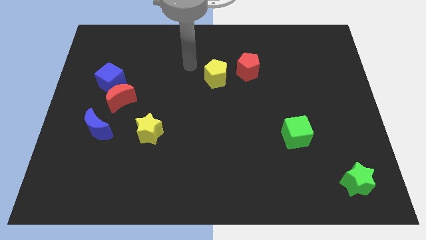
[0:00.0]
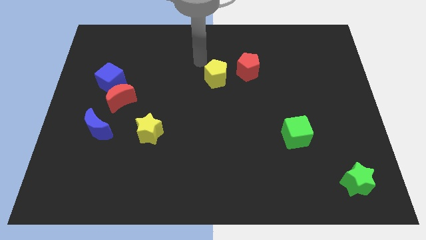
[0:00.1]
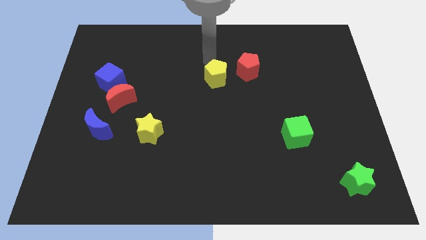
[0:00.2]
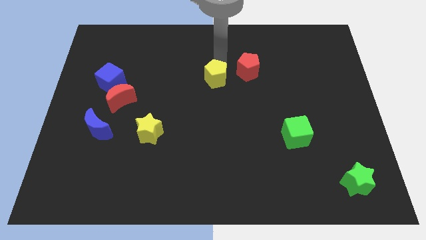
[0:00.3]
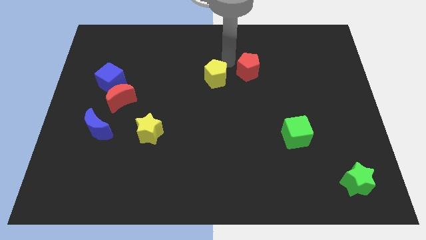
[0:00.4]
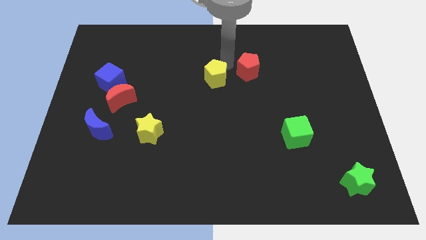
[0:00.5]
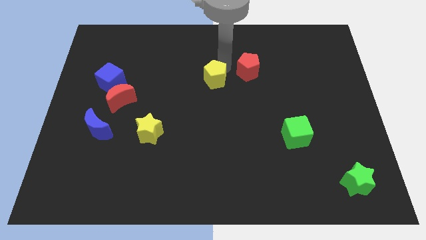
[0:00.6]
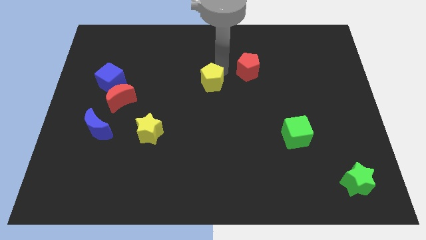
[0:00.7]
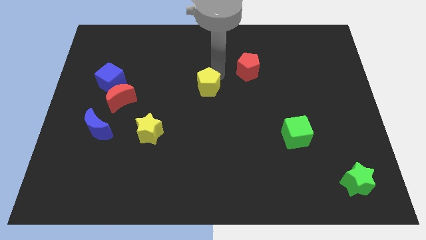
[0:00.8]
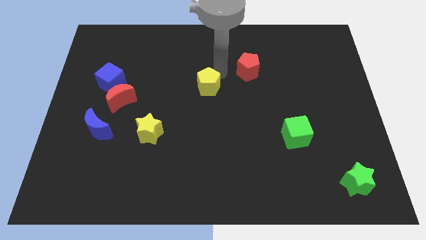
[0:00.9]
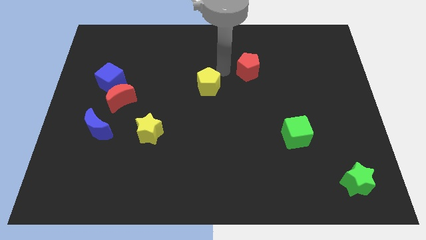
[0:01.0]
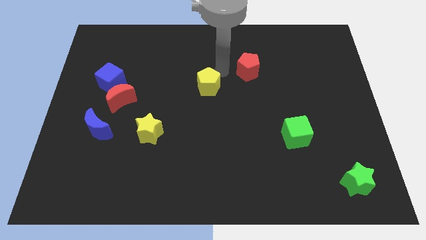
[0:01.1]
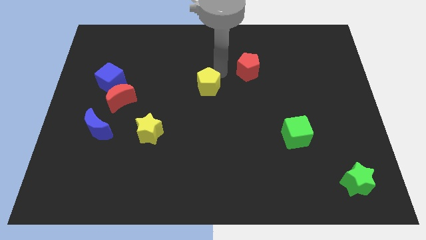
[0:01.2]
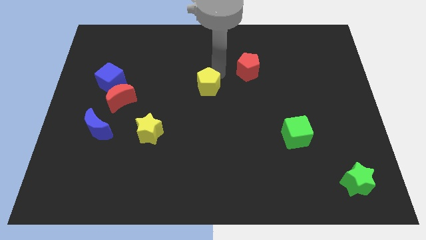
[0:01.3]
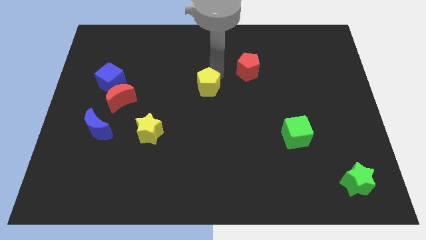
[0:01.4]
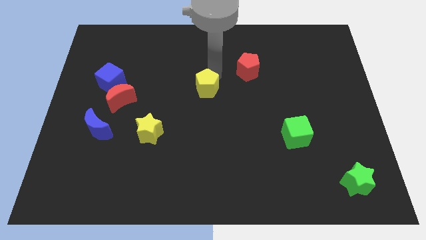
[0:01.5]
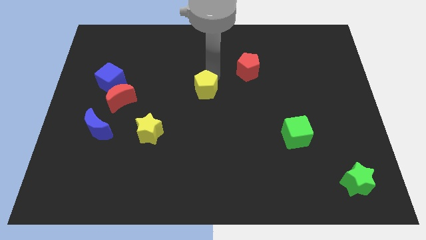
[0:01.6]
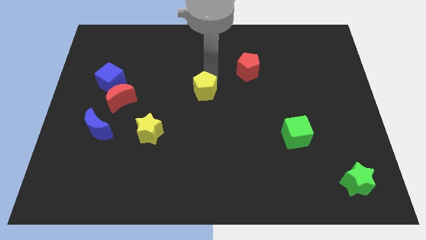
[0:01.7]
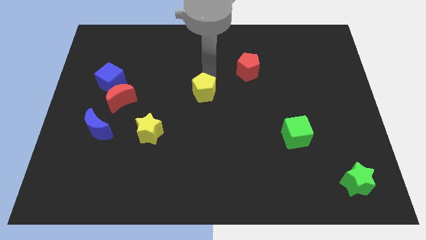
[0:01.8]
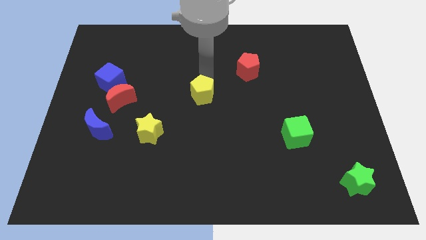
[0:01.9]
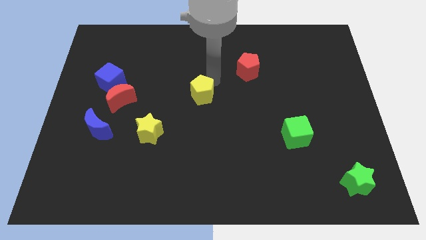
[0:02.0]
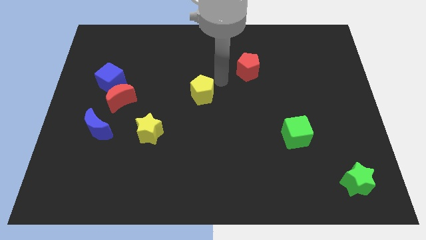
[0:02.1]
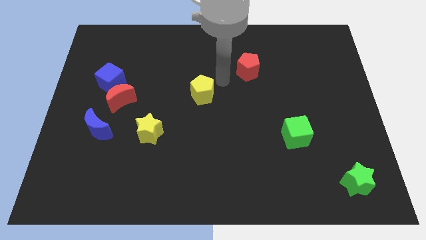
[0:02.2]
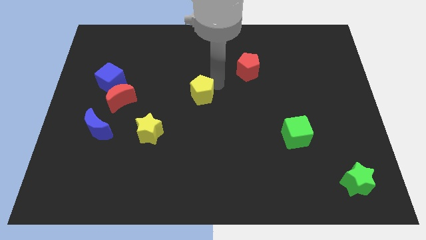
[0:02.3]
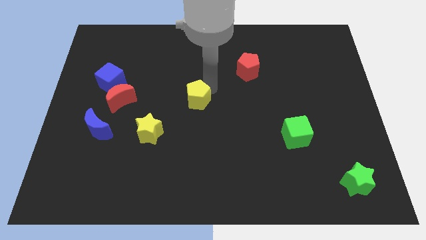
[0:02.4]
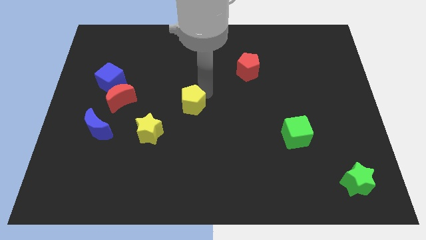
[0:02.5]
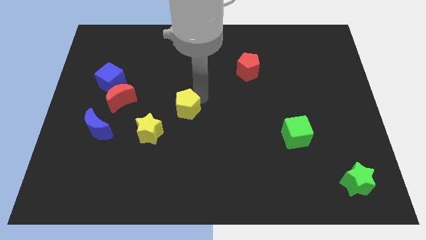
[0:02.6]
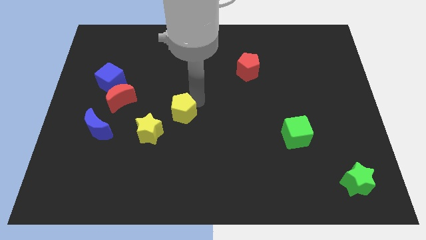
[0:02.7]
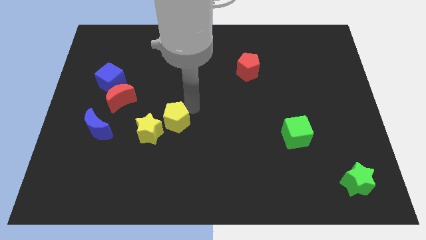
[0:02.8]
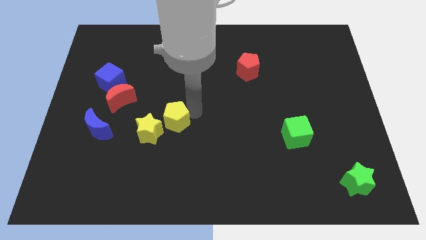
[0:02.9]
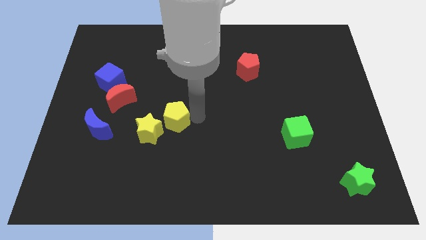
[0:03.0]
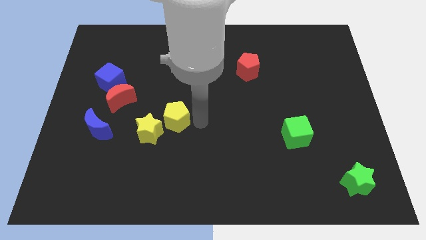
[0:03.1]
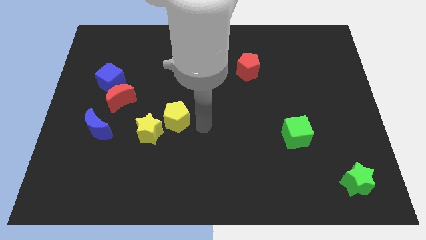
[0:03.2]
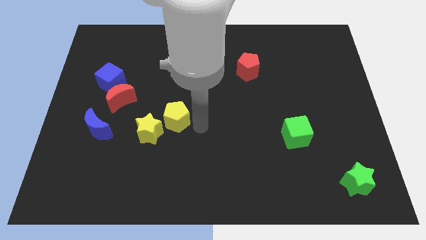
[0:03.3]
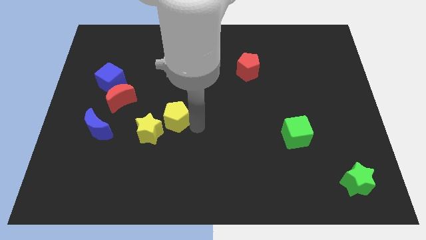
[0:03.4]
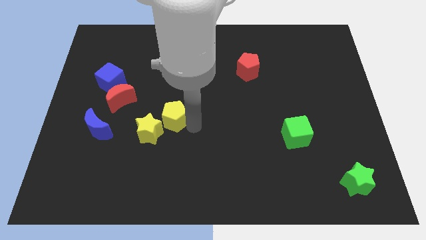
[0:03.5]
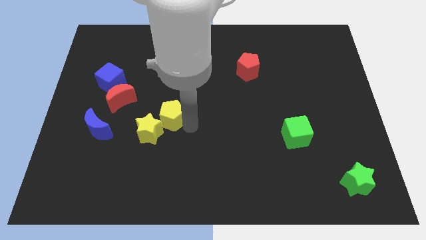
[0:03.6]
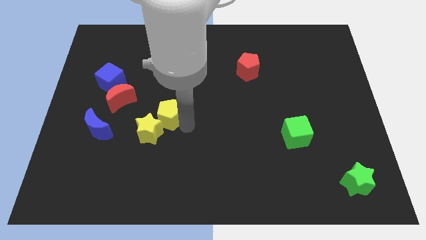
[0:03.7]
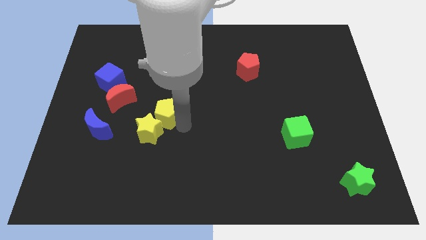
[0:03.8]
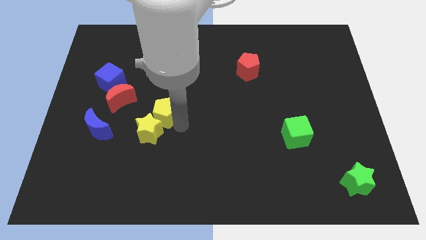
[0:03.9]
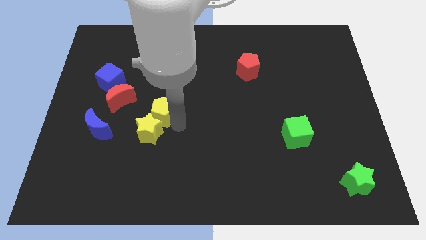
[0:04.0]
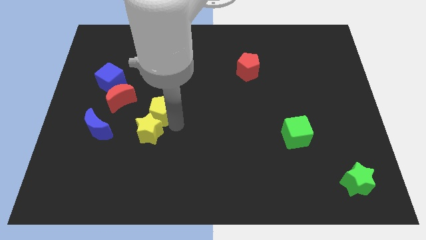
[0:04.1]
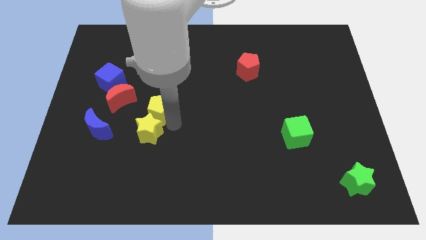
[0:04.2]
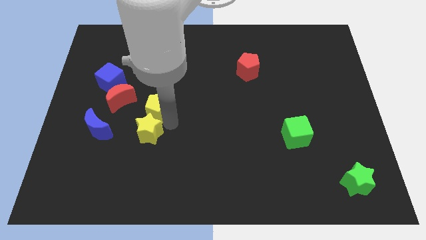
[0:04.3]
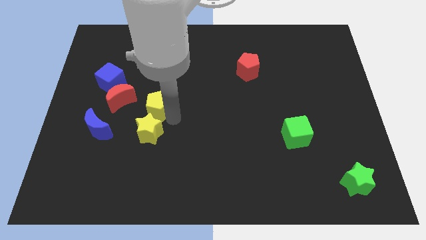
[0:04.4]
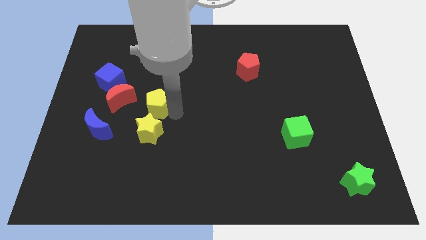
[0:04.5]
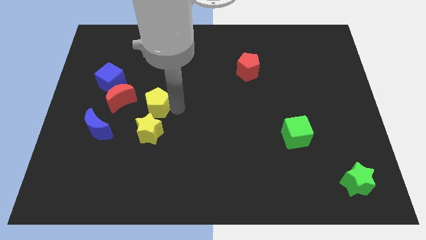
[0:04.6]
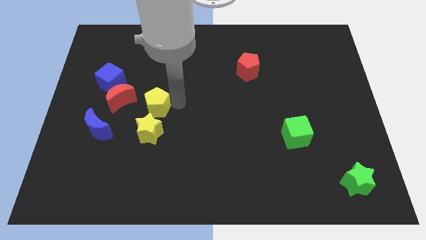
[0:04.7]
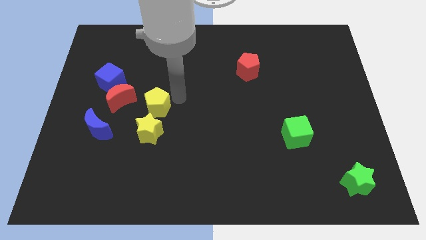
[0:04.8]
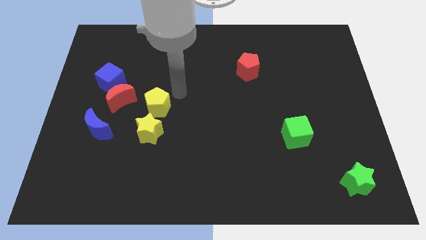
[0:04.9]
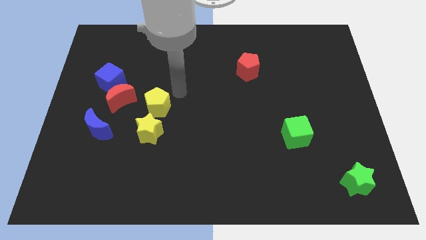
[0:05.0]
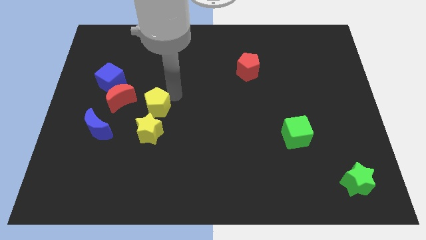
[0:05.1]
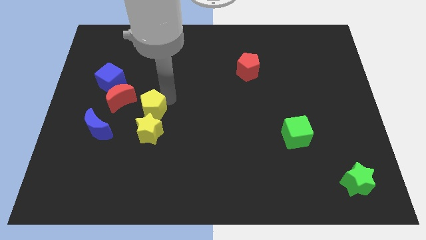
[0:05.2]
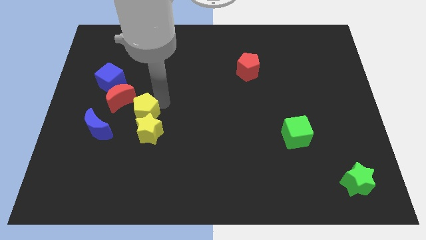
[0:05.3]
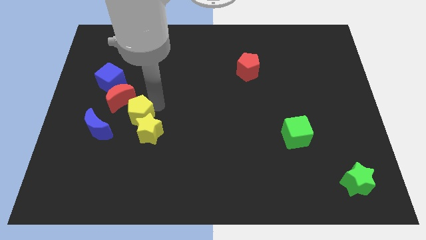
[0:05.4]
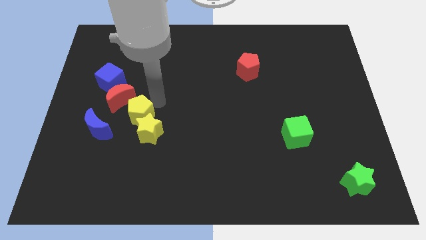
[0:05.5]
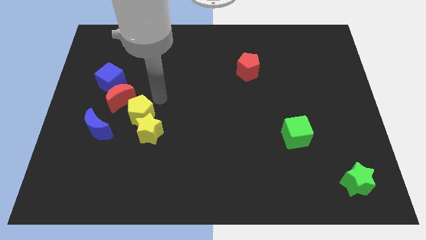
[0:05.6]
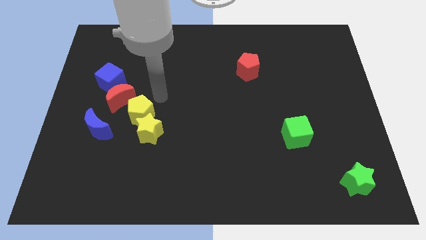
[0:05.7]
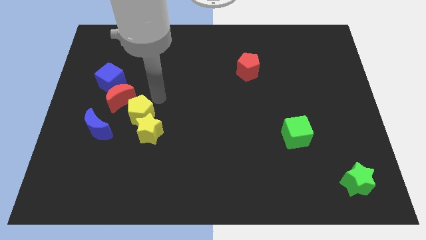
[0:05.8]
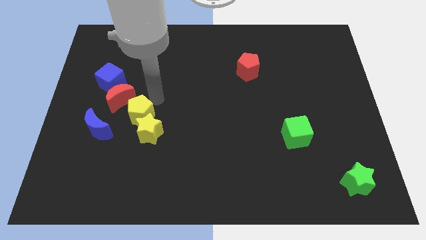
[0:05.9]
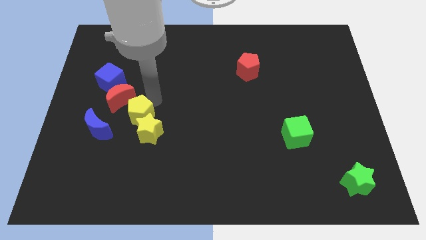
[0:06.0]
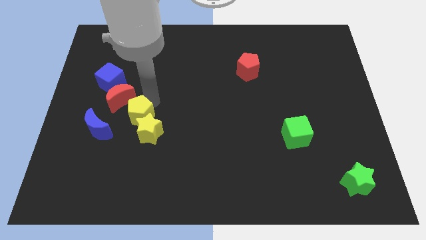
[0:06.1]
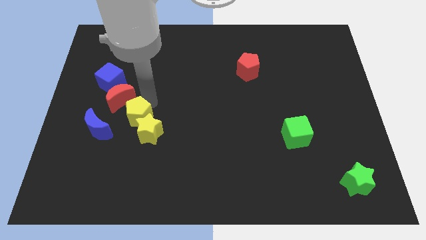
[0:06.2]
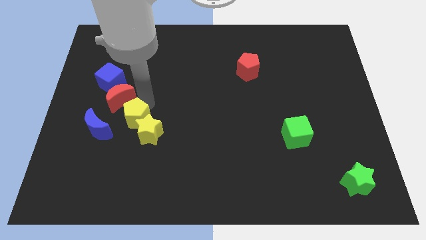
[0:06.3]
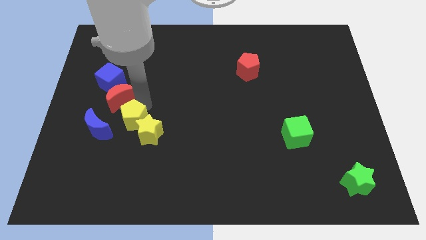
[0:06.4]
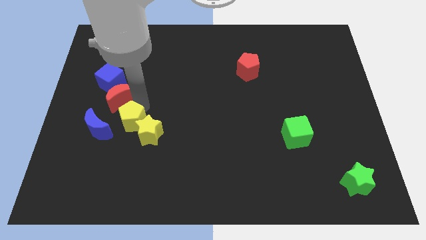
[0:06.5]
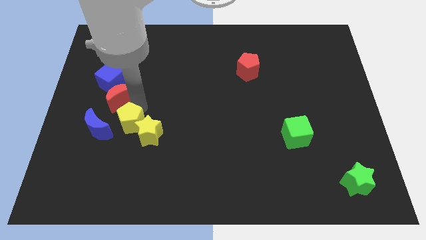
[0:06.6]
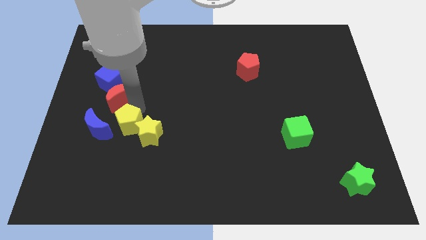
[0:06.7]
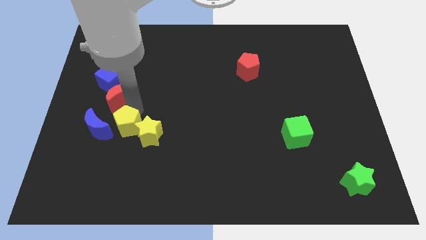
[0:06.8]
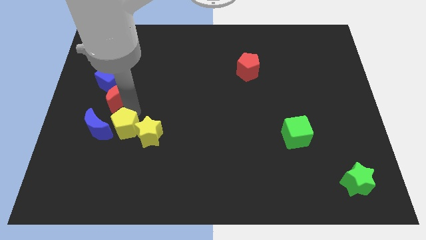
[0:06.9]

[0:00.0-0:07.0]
move the yellow pentagon to the bottom right of the blue moon
